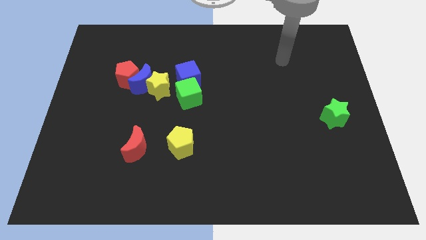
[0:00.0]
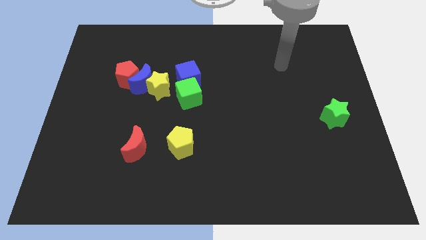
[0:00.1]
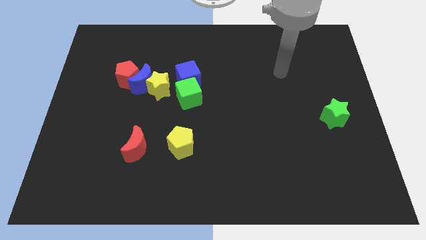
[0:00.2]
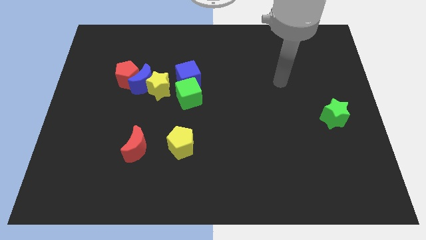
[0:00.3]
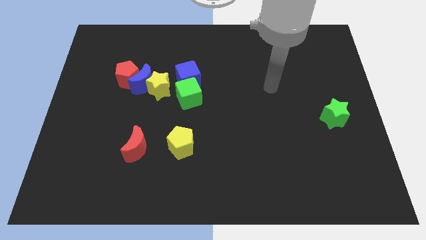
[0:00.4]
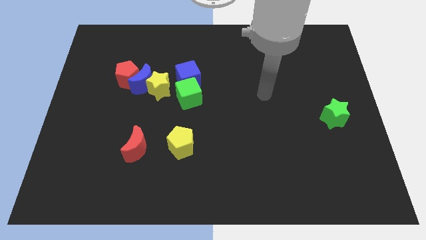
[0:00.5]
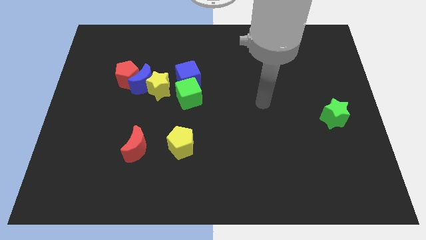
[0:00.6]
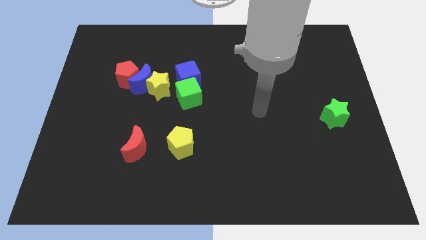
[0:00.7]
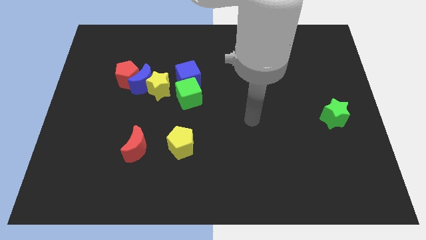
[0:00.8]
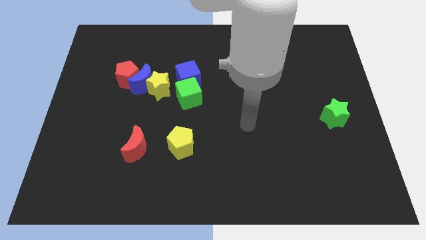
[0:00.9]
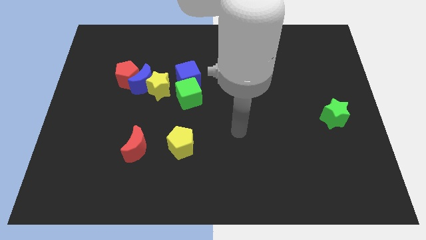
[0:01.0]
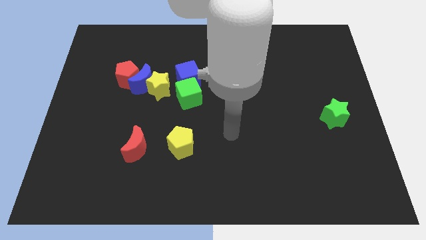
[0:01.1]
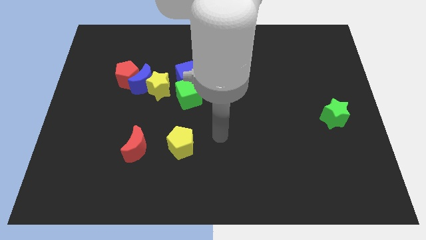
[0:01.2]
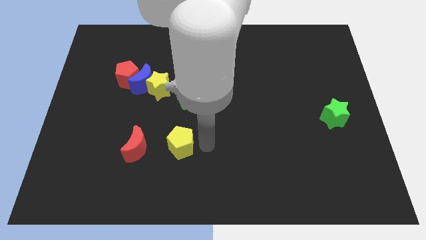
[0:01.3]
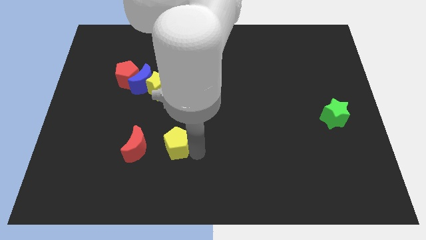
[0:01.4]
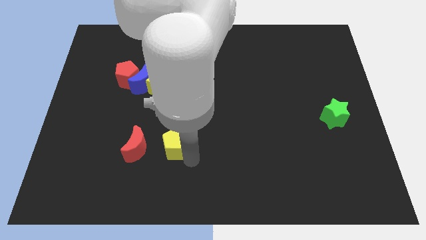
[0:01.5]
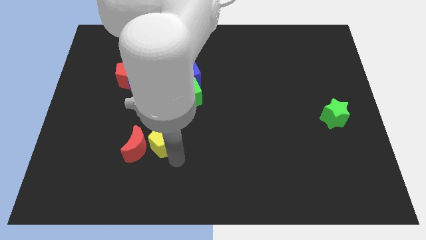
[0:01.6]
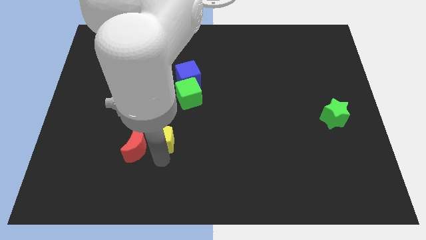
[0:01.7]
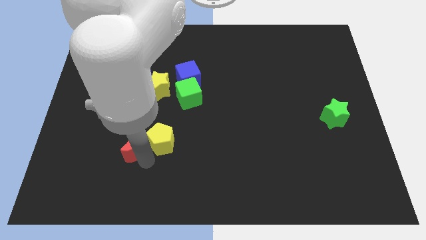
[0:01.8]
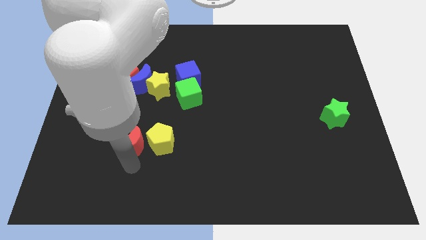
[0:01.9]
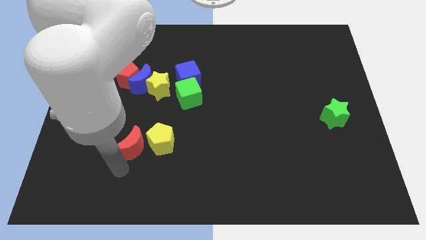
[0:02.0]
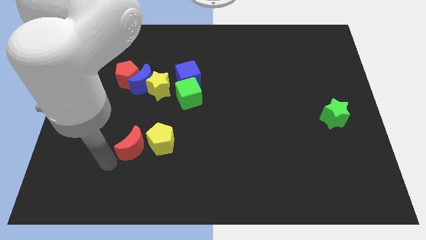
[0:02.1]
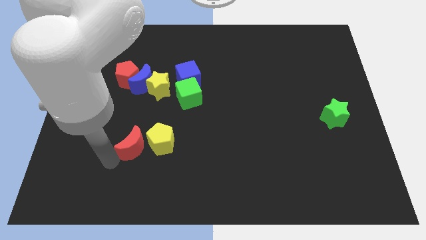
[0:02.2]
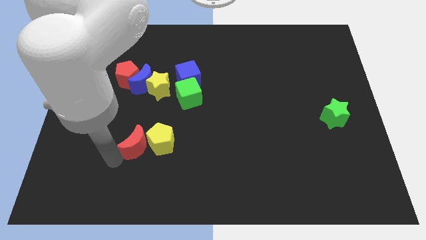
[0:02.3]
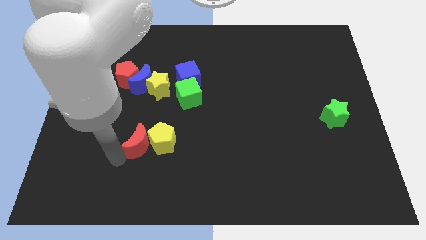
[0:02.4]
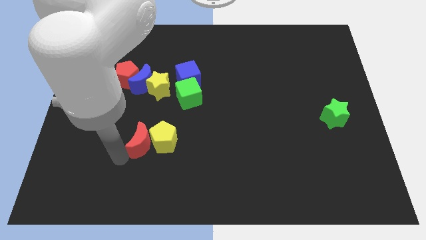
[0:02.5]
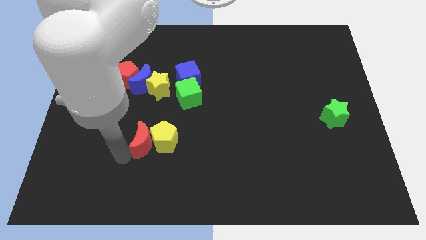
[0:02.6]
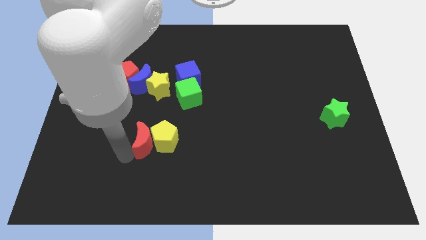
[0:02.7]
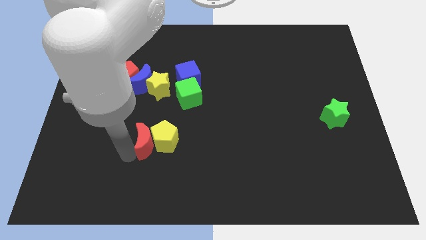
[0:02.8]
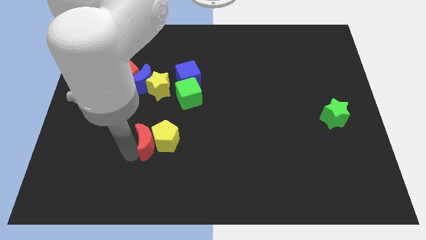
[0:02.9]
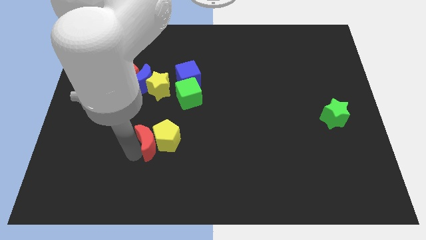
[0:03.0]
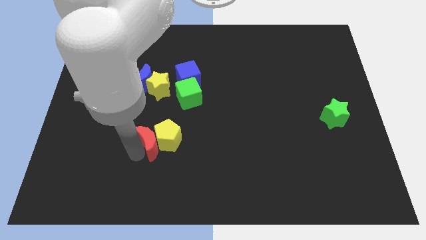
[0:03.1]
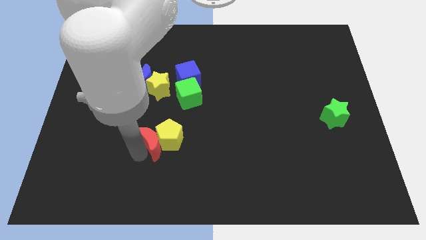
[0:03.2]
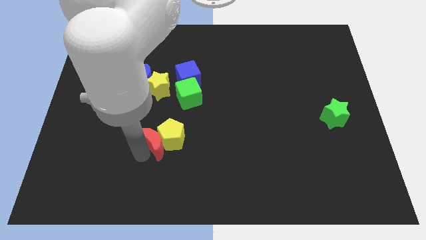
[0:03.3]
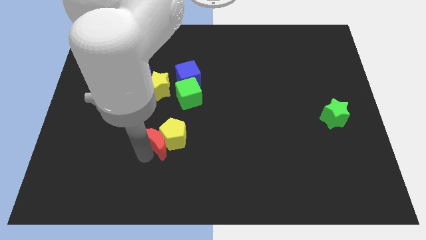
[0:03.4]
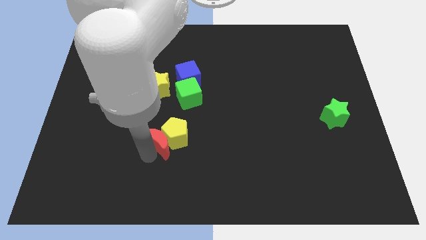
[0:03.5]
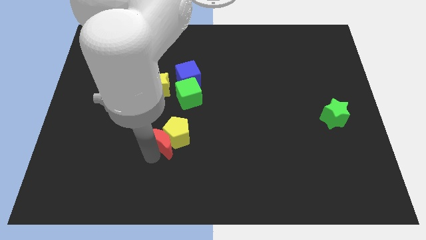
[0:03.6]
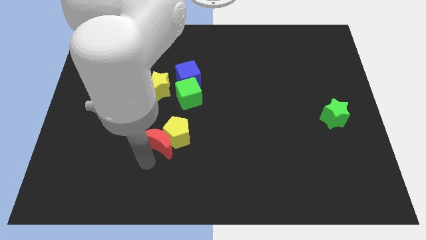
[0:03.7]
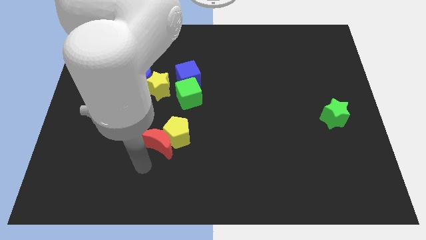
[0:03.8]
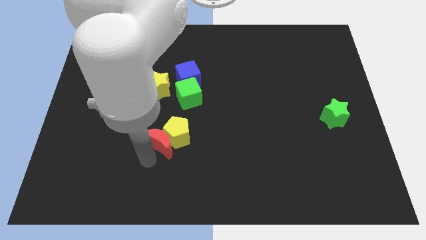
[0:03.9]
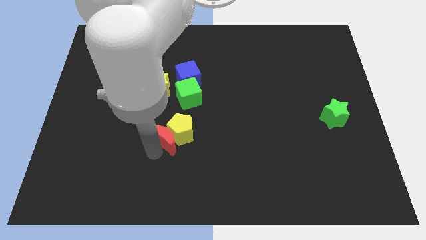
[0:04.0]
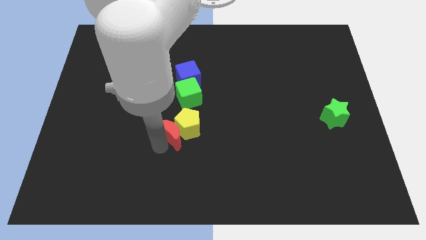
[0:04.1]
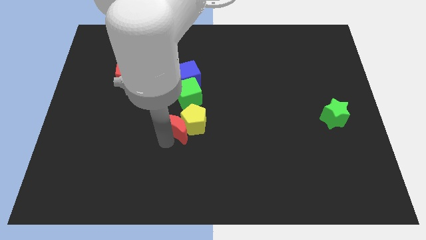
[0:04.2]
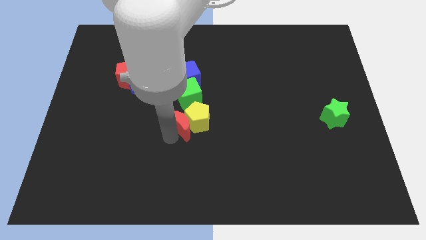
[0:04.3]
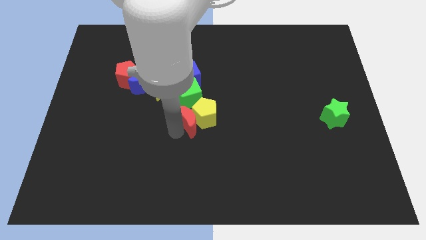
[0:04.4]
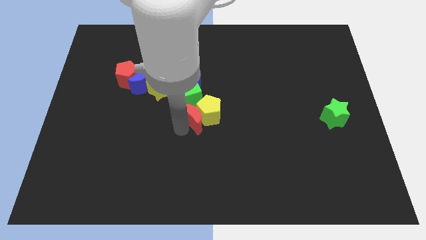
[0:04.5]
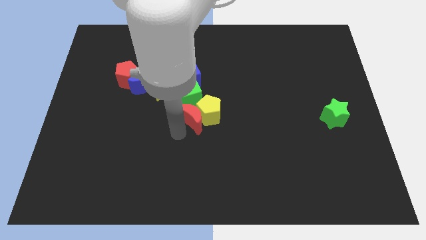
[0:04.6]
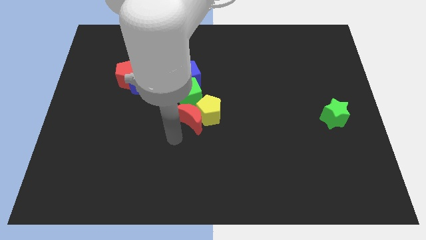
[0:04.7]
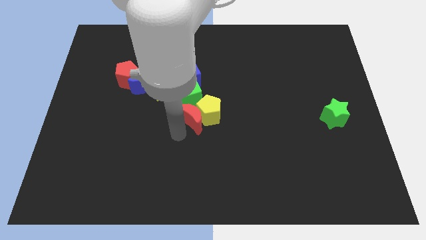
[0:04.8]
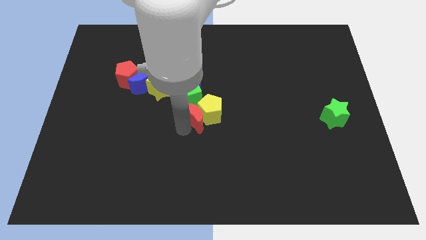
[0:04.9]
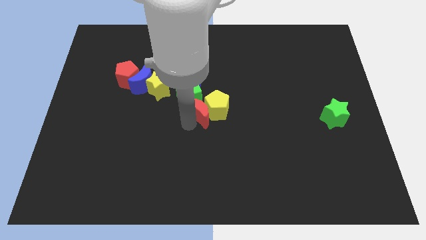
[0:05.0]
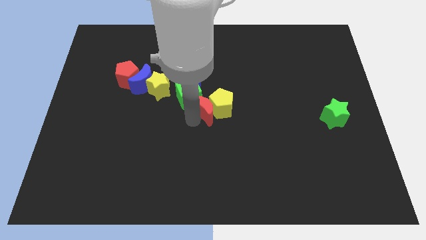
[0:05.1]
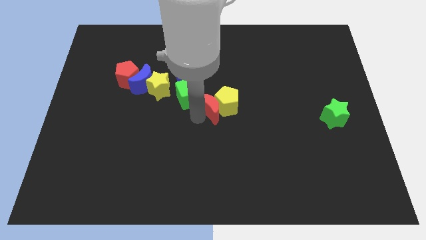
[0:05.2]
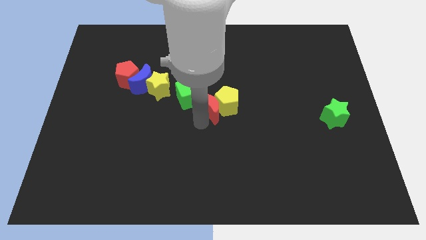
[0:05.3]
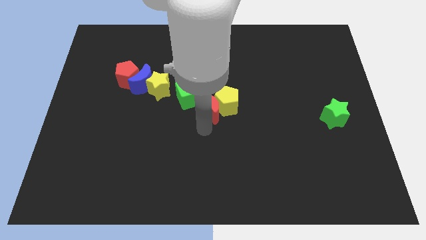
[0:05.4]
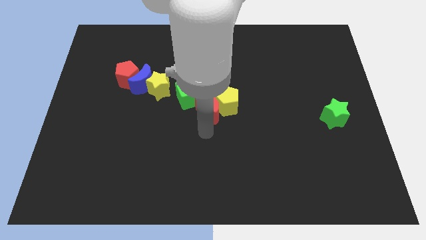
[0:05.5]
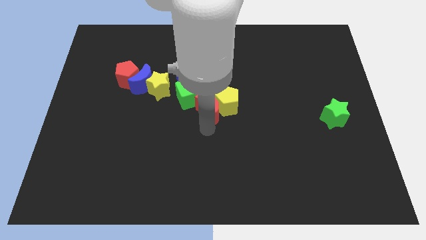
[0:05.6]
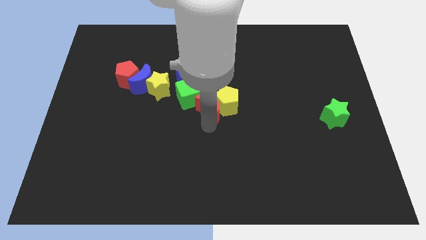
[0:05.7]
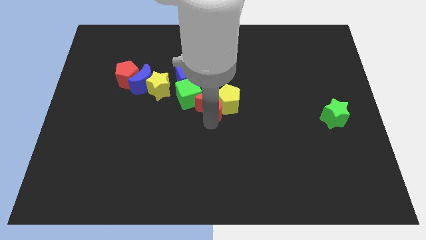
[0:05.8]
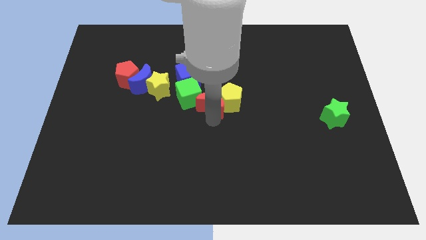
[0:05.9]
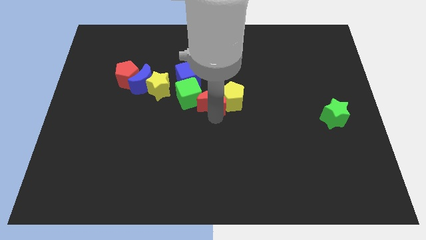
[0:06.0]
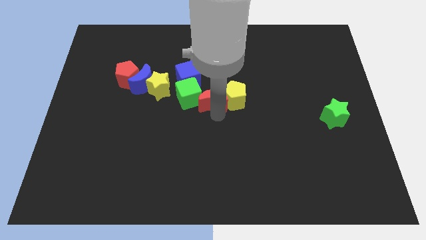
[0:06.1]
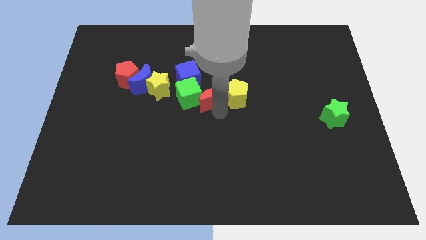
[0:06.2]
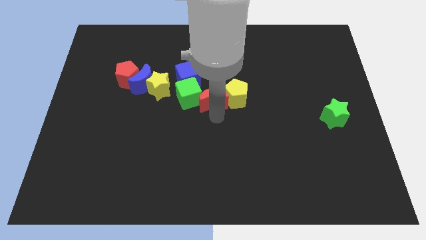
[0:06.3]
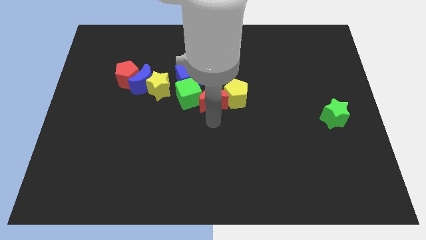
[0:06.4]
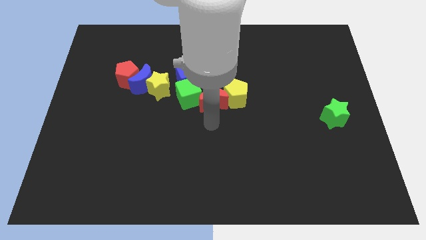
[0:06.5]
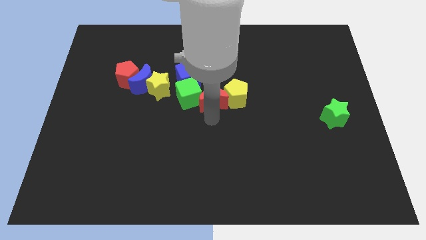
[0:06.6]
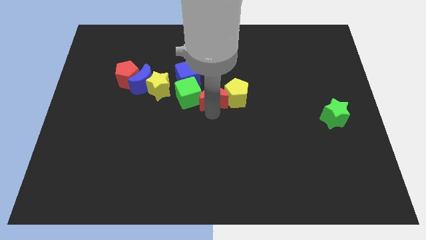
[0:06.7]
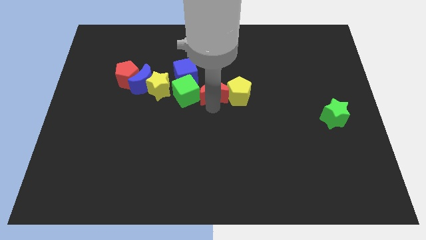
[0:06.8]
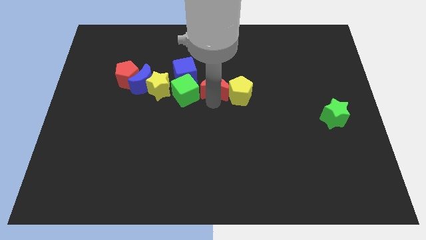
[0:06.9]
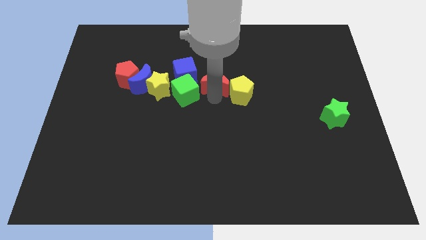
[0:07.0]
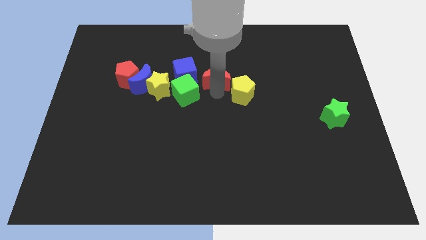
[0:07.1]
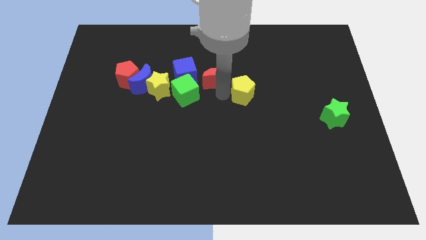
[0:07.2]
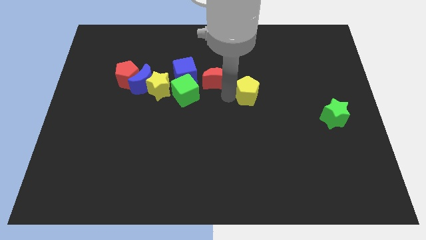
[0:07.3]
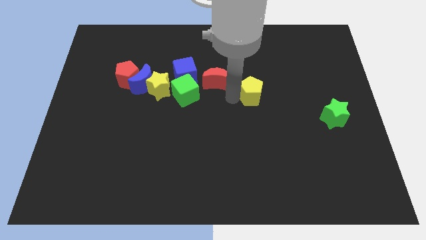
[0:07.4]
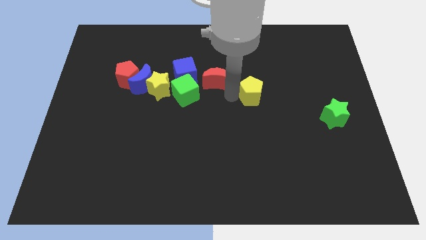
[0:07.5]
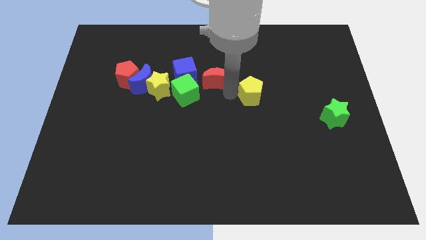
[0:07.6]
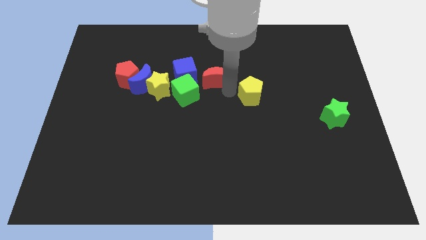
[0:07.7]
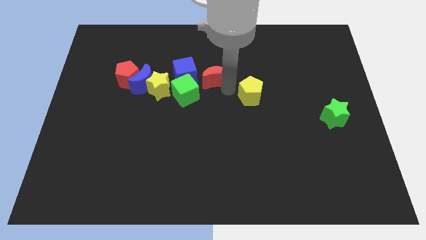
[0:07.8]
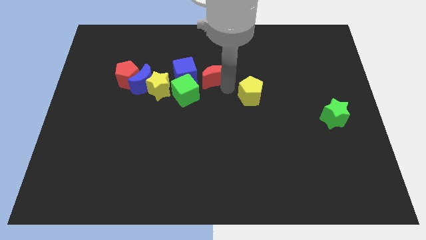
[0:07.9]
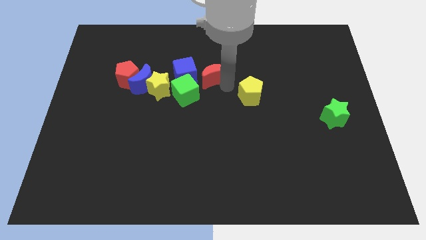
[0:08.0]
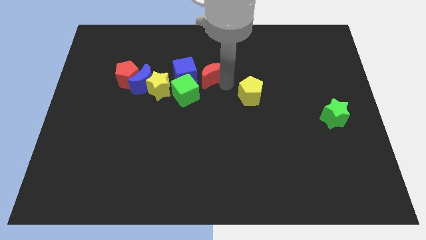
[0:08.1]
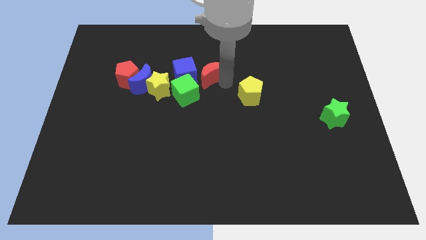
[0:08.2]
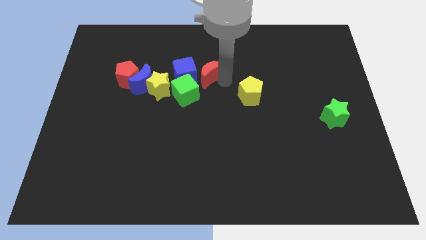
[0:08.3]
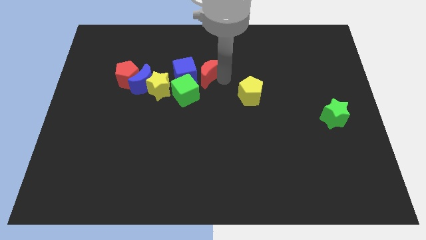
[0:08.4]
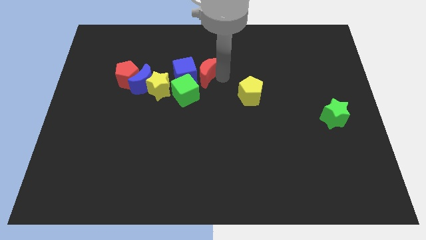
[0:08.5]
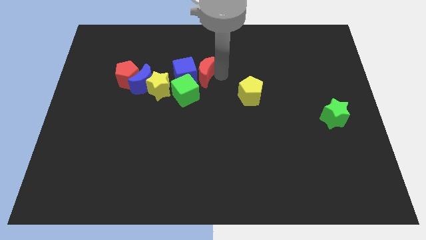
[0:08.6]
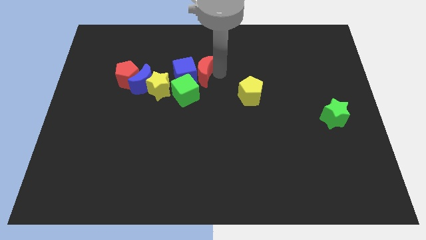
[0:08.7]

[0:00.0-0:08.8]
put the red moon diagonally up and to the right of the yellow star
